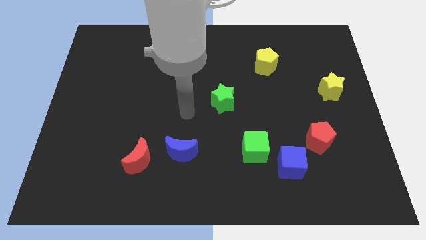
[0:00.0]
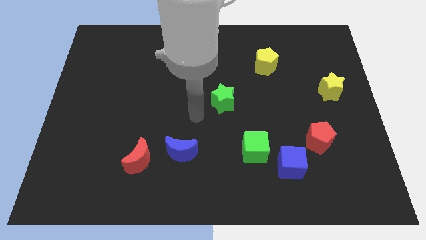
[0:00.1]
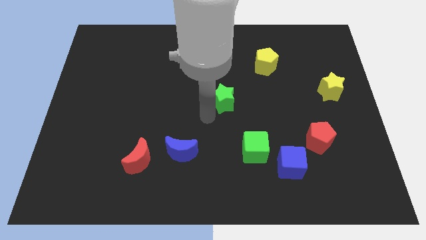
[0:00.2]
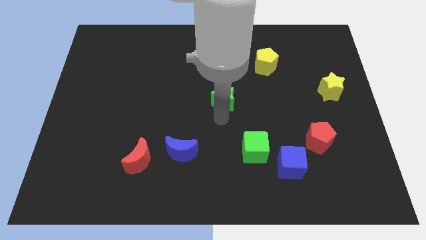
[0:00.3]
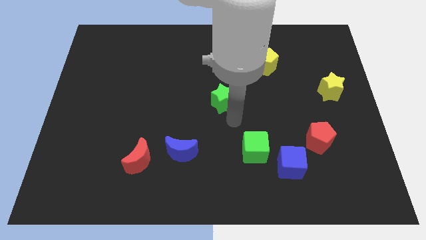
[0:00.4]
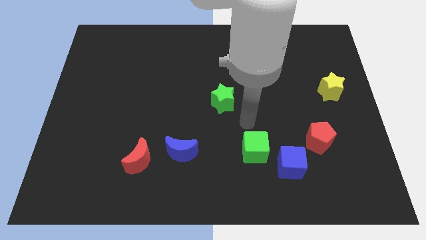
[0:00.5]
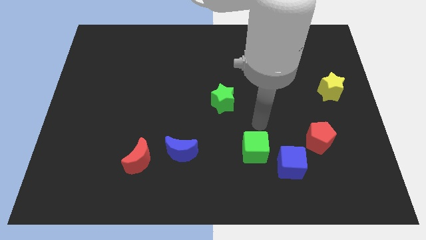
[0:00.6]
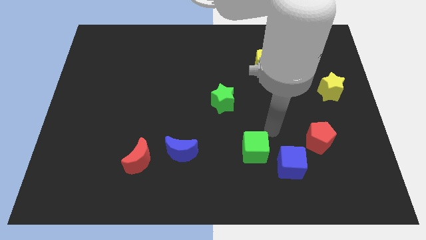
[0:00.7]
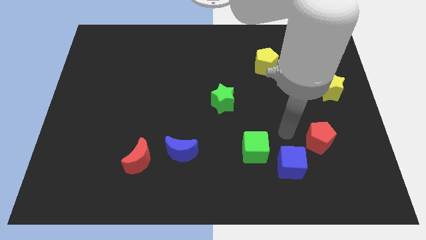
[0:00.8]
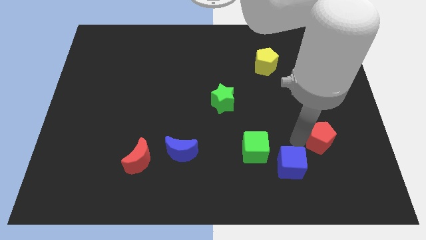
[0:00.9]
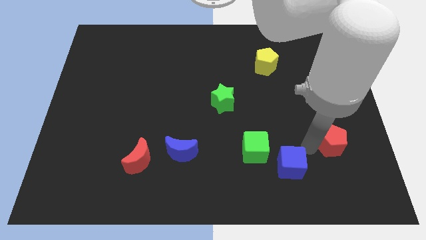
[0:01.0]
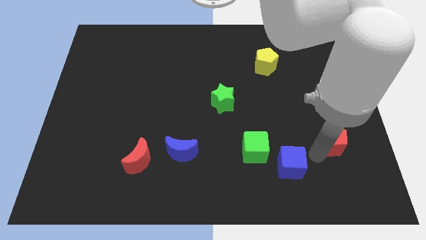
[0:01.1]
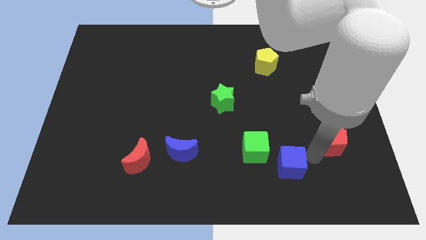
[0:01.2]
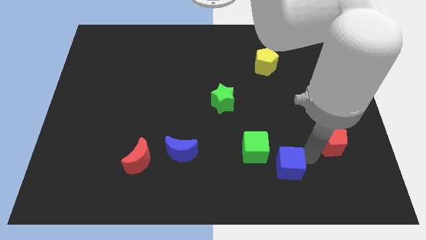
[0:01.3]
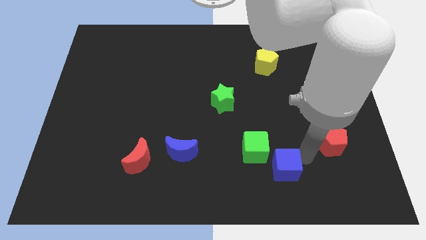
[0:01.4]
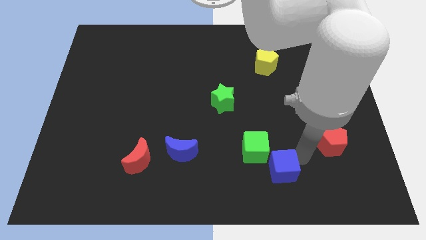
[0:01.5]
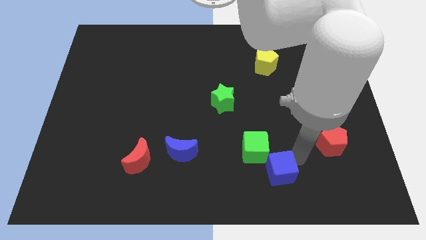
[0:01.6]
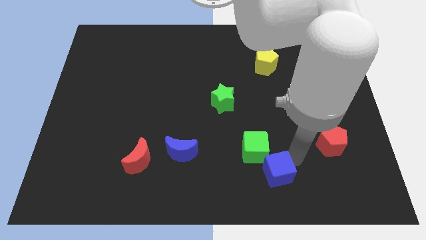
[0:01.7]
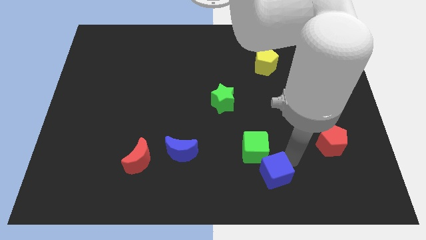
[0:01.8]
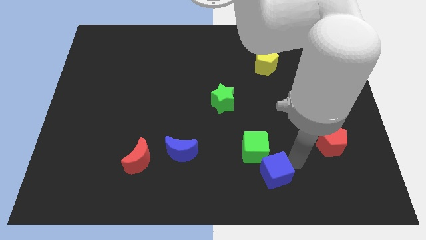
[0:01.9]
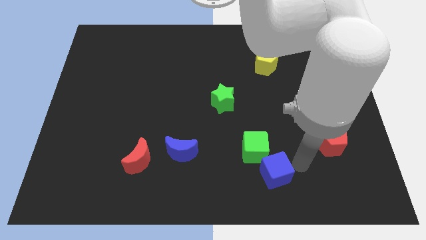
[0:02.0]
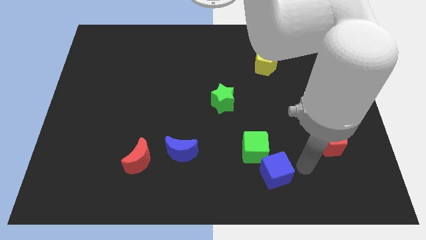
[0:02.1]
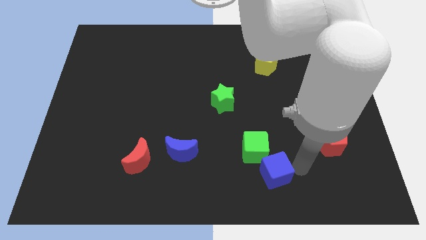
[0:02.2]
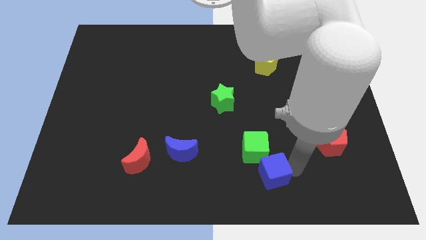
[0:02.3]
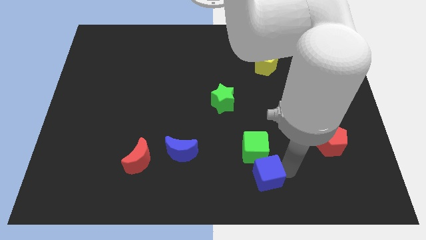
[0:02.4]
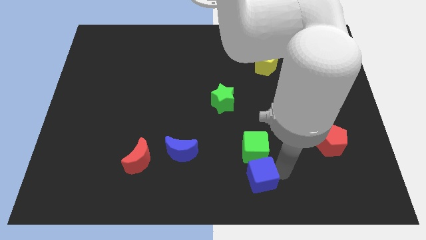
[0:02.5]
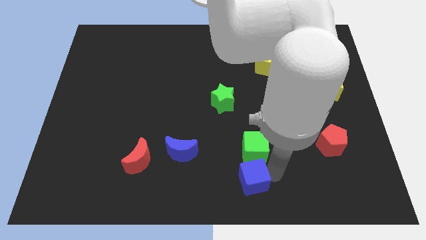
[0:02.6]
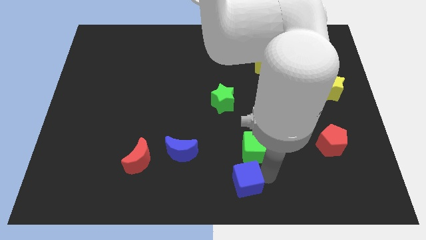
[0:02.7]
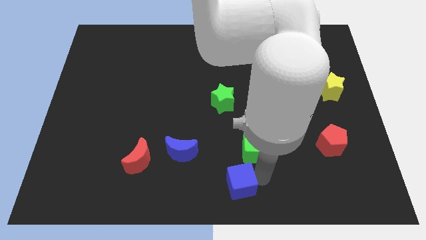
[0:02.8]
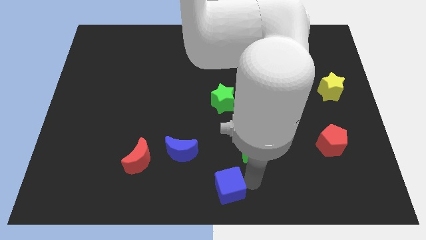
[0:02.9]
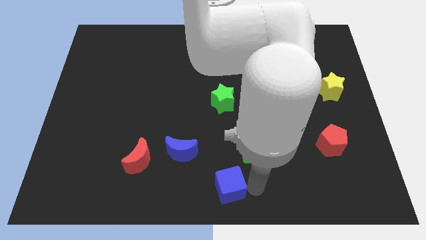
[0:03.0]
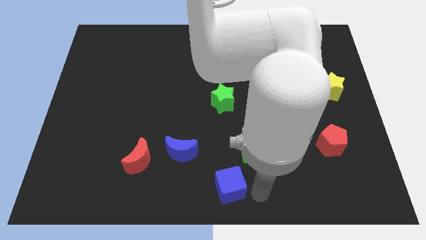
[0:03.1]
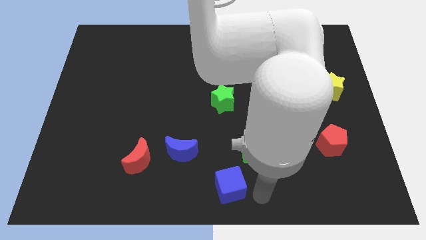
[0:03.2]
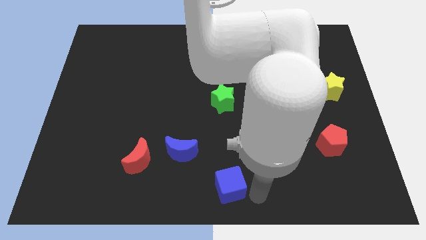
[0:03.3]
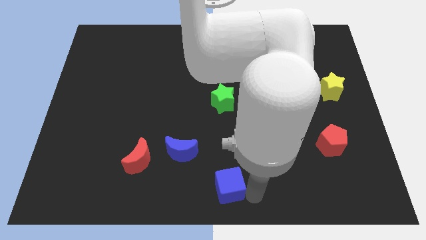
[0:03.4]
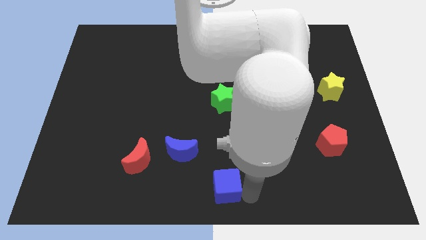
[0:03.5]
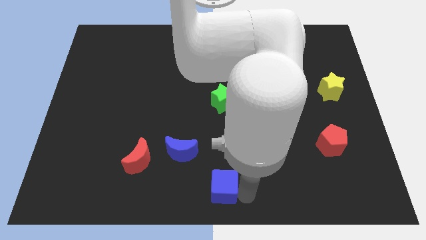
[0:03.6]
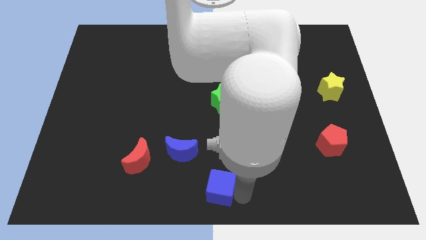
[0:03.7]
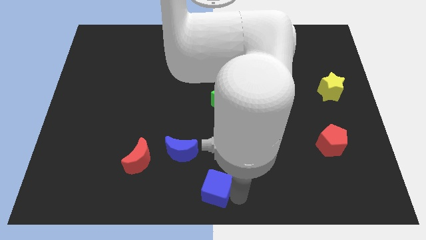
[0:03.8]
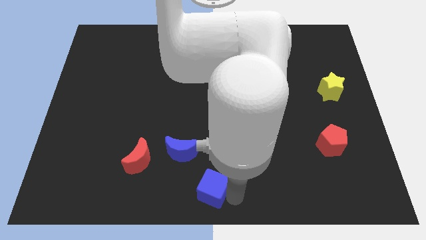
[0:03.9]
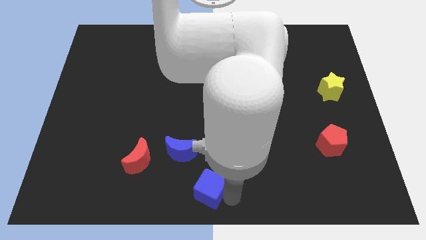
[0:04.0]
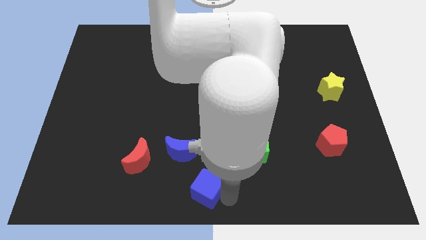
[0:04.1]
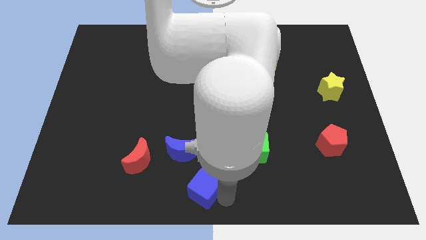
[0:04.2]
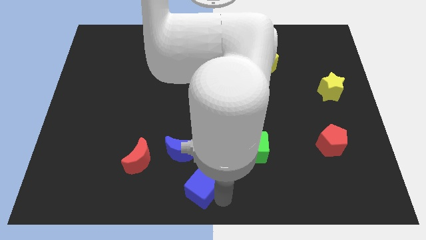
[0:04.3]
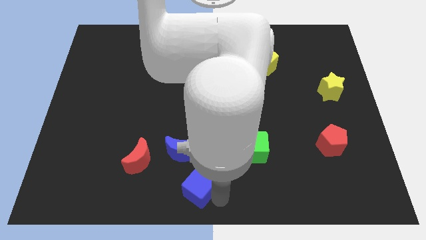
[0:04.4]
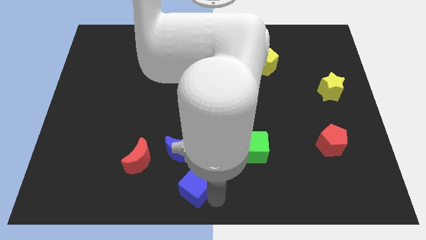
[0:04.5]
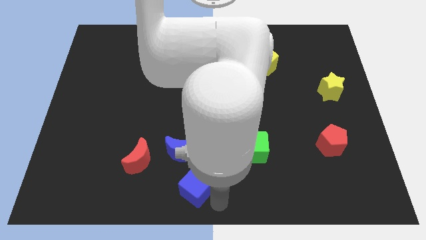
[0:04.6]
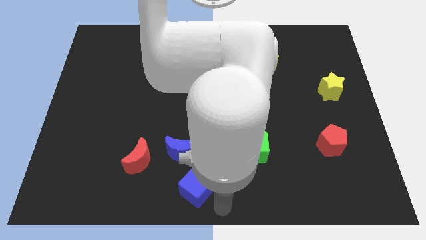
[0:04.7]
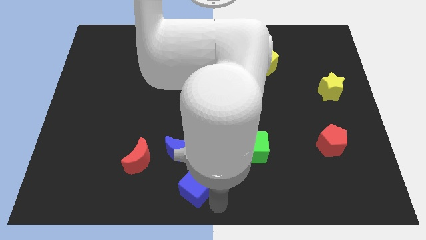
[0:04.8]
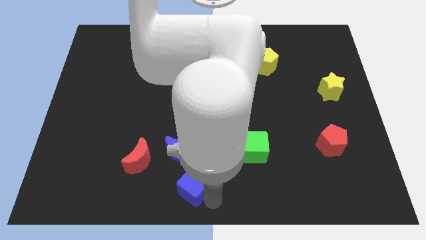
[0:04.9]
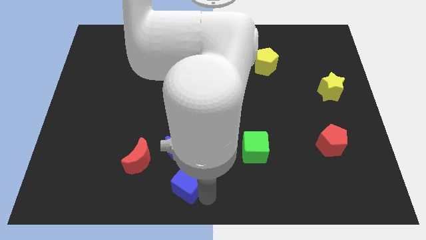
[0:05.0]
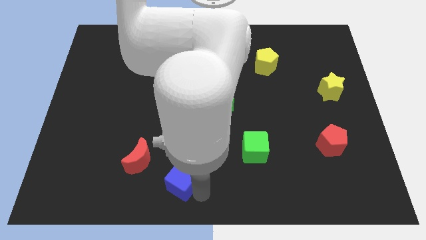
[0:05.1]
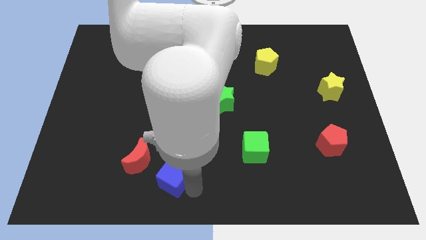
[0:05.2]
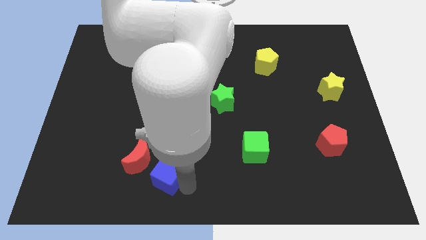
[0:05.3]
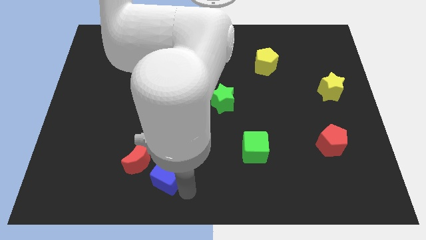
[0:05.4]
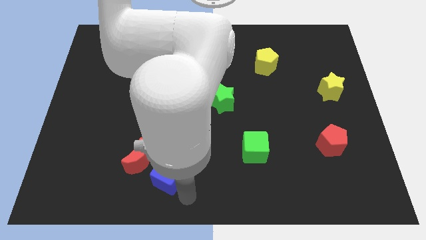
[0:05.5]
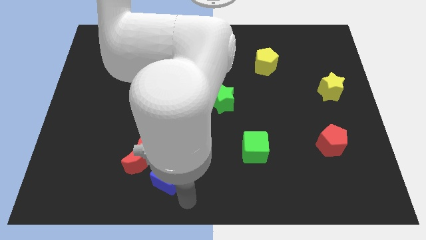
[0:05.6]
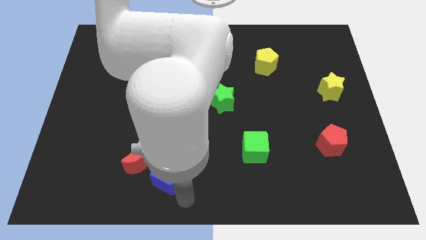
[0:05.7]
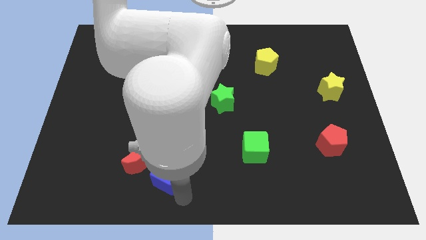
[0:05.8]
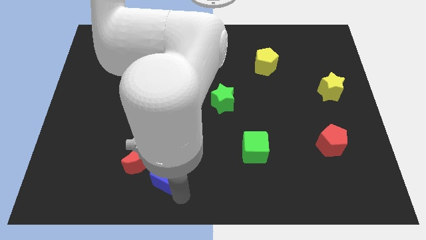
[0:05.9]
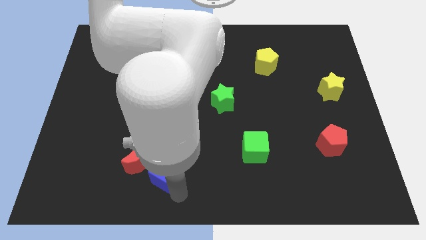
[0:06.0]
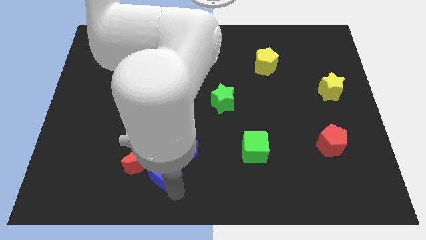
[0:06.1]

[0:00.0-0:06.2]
move the blue cube close to the red moon
